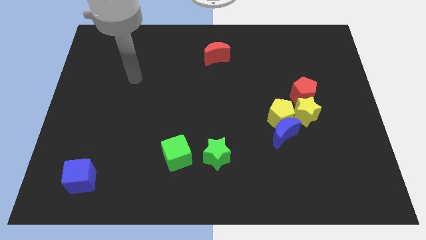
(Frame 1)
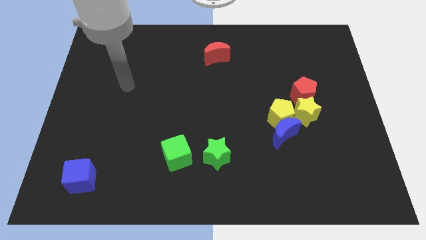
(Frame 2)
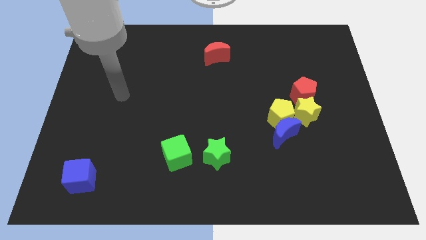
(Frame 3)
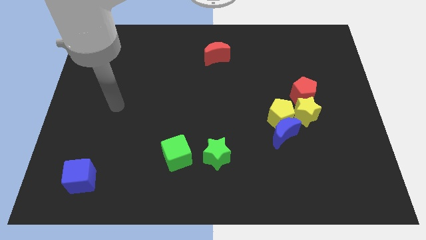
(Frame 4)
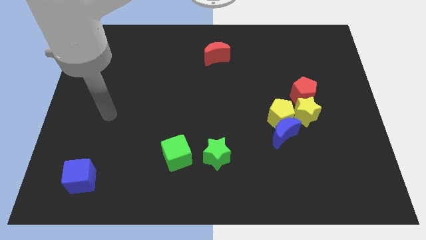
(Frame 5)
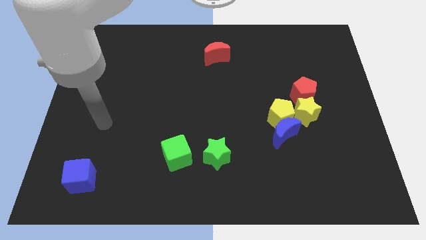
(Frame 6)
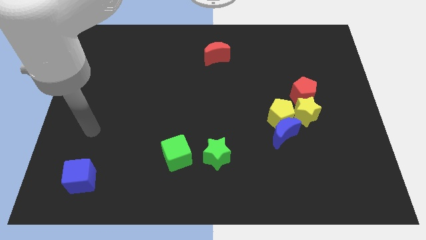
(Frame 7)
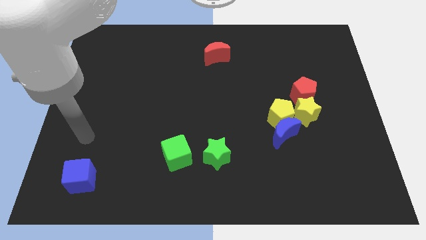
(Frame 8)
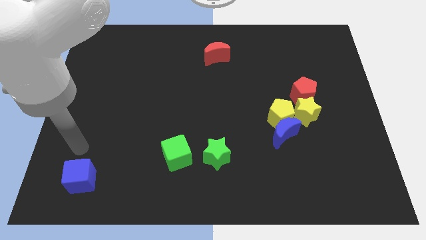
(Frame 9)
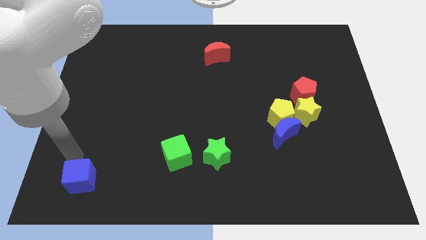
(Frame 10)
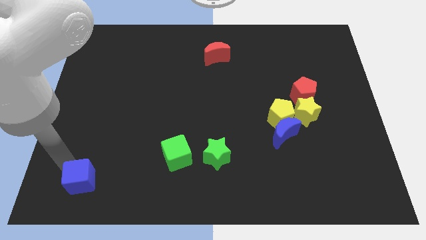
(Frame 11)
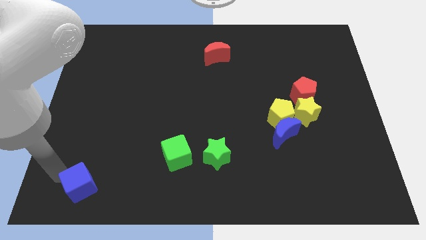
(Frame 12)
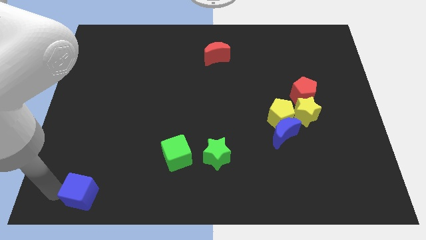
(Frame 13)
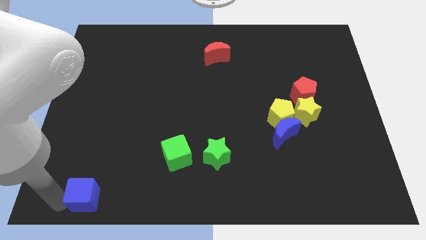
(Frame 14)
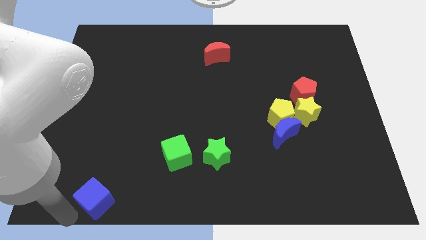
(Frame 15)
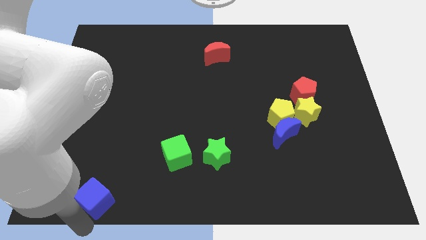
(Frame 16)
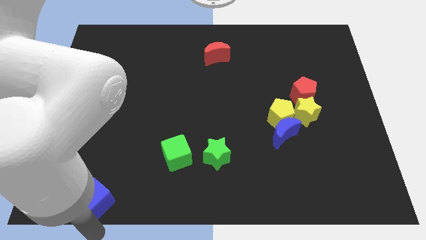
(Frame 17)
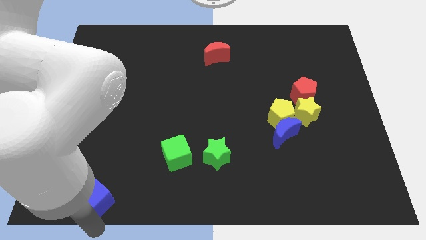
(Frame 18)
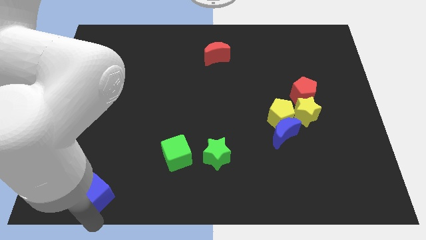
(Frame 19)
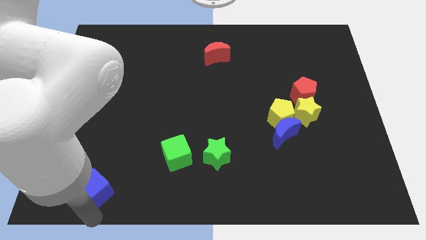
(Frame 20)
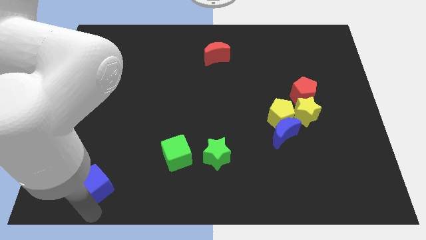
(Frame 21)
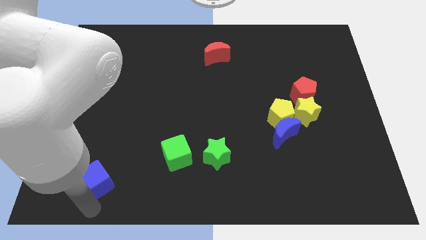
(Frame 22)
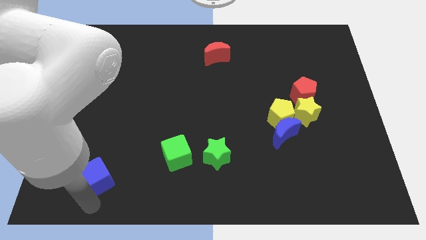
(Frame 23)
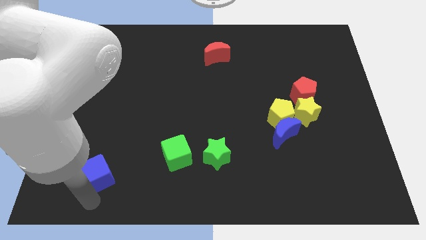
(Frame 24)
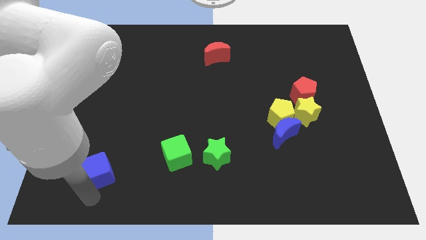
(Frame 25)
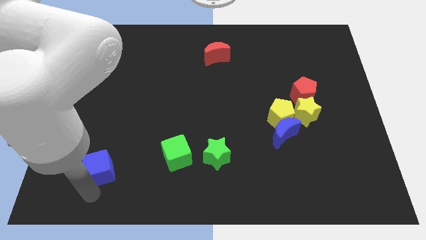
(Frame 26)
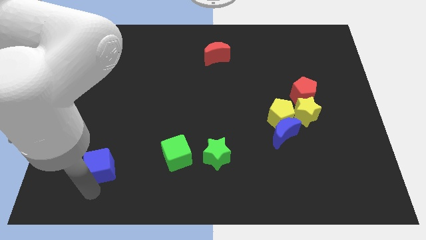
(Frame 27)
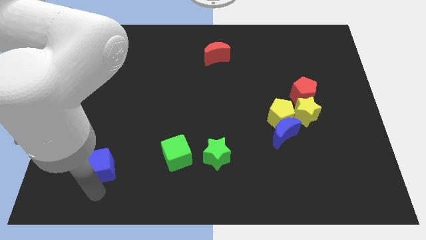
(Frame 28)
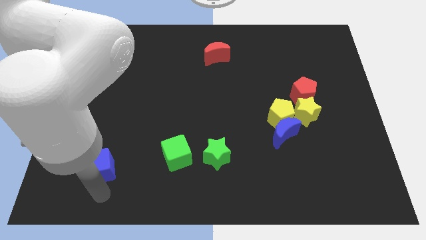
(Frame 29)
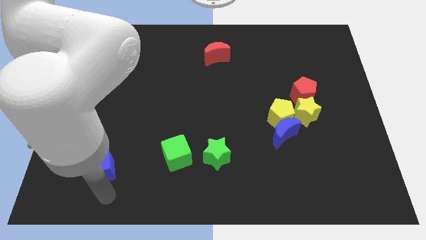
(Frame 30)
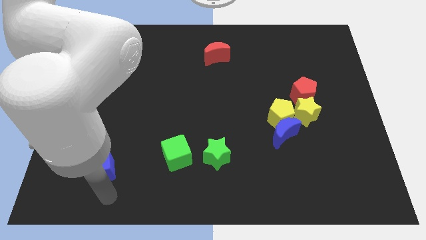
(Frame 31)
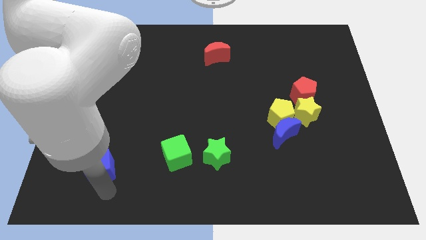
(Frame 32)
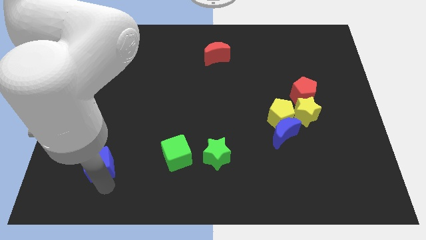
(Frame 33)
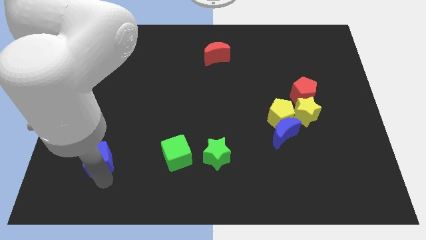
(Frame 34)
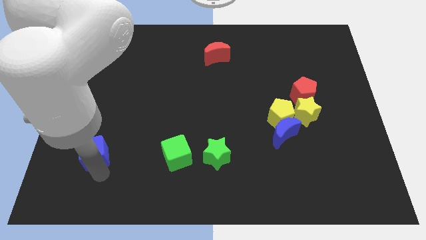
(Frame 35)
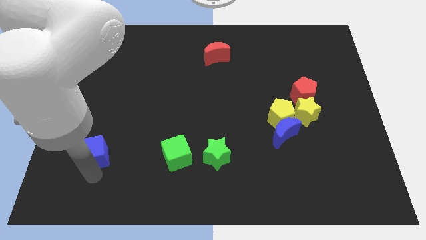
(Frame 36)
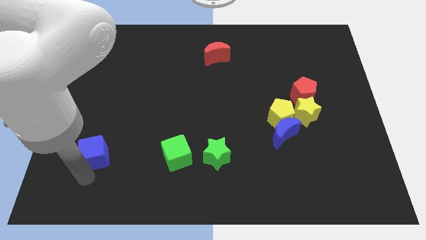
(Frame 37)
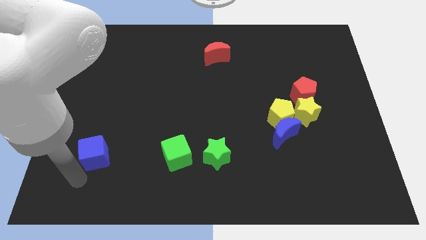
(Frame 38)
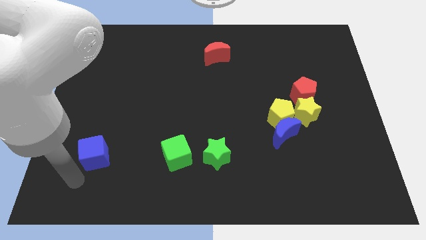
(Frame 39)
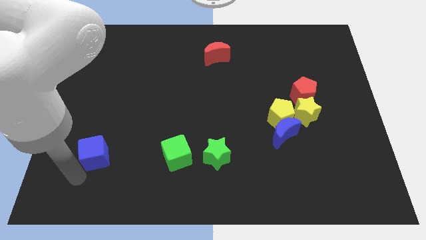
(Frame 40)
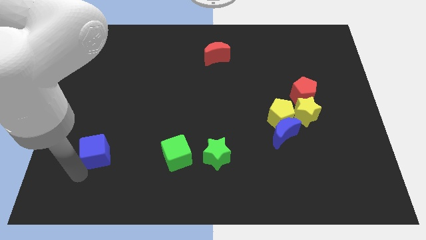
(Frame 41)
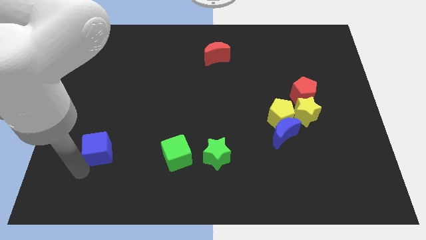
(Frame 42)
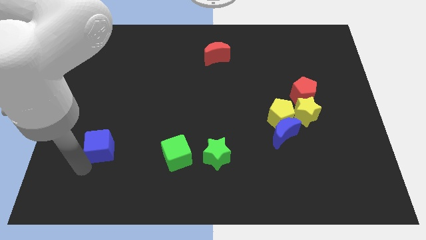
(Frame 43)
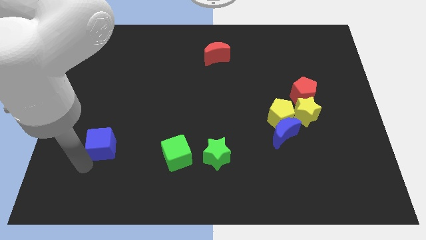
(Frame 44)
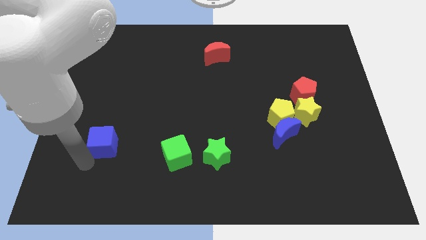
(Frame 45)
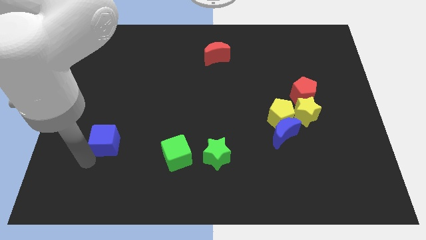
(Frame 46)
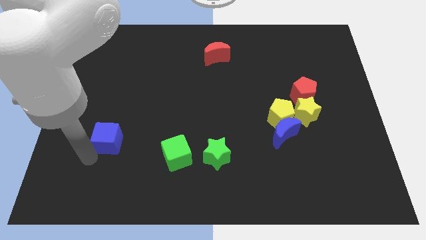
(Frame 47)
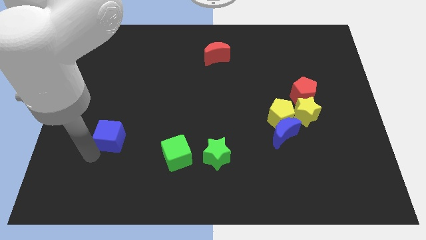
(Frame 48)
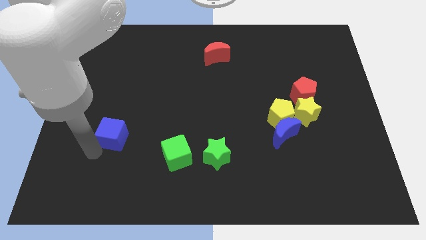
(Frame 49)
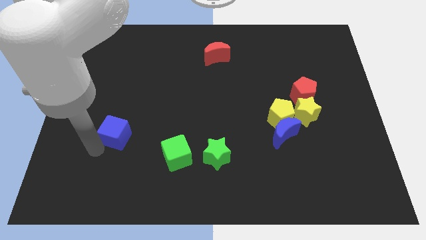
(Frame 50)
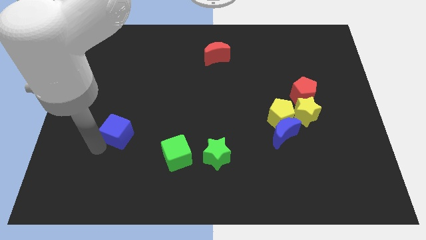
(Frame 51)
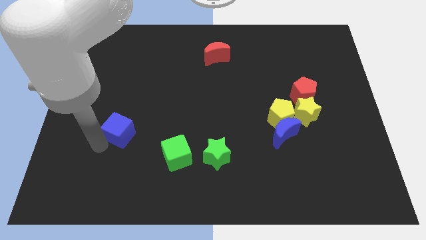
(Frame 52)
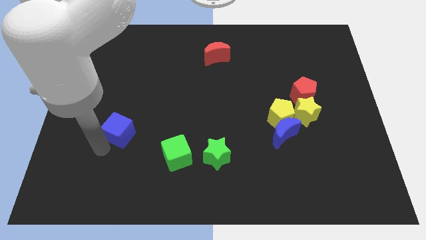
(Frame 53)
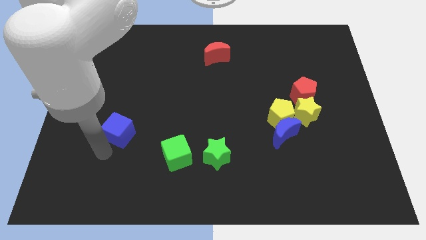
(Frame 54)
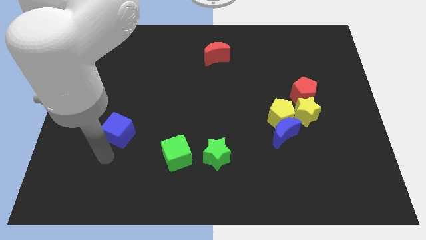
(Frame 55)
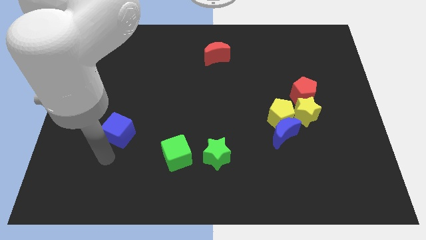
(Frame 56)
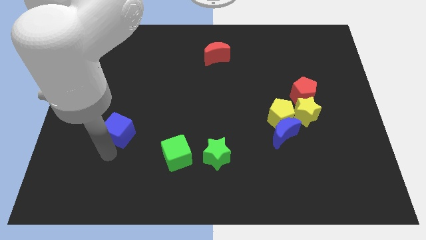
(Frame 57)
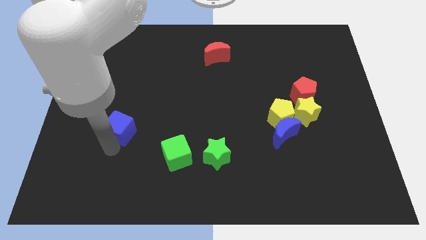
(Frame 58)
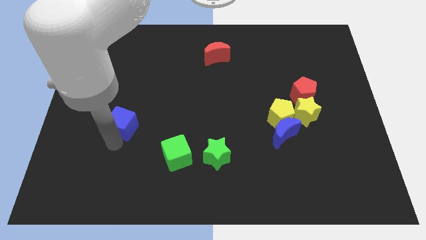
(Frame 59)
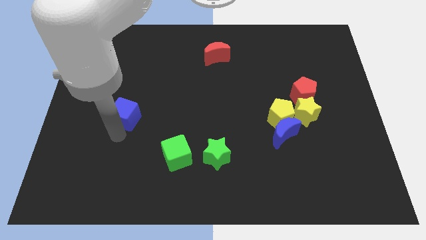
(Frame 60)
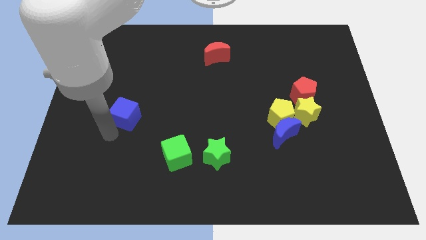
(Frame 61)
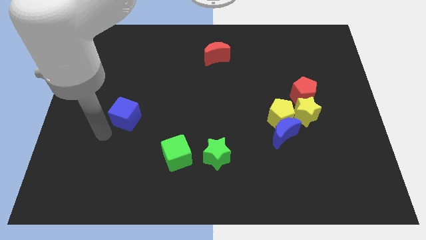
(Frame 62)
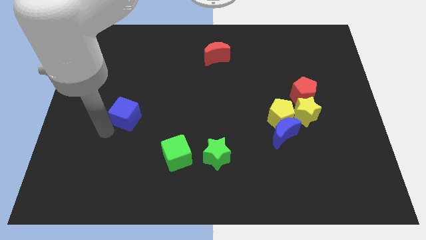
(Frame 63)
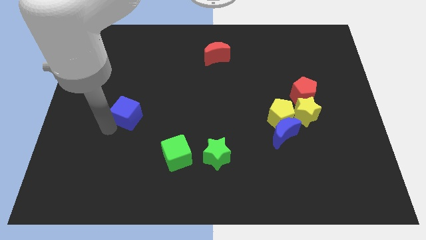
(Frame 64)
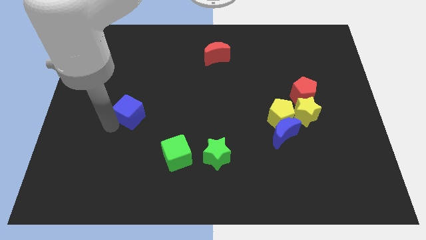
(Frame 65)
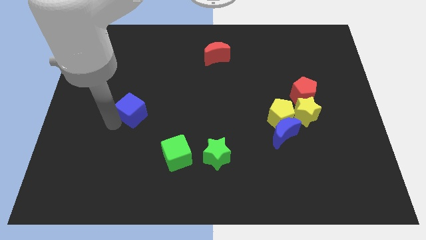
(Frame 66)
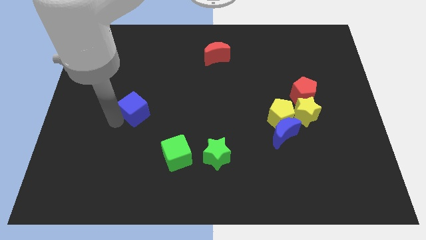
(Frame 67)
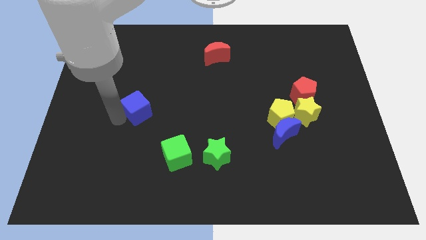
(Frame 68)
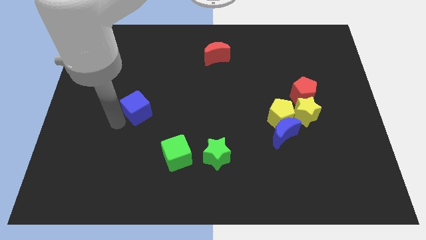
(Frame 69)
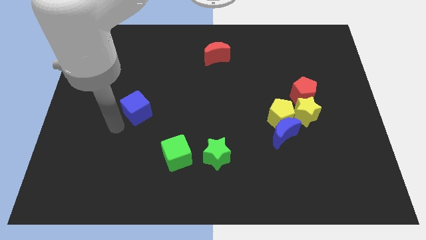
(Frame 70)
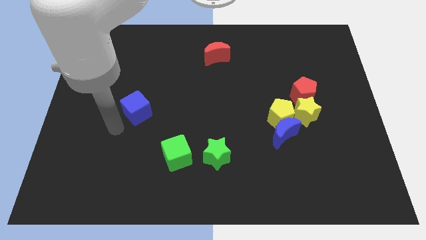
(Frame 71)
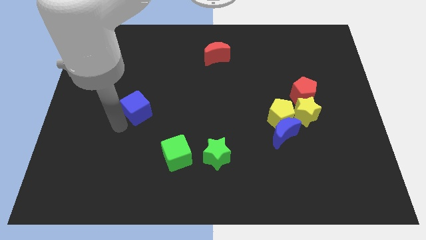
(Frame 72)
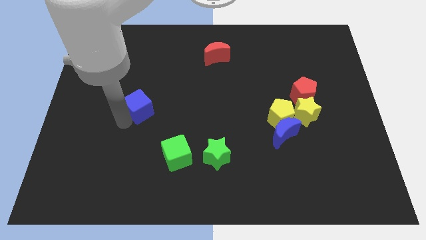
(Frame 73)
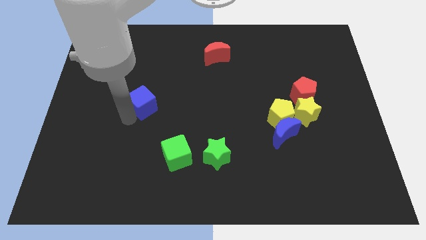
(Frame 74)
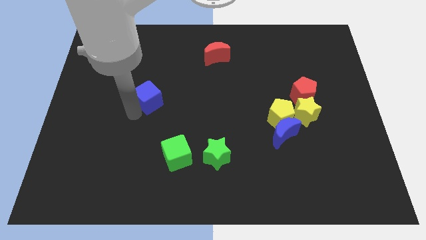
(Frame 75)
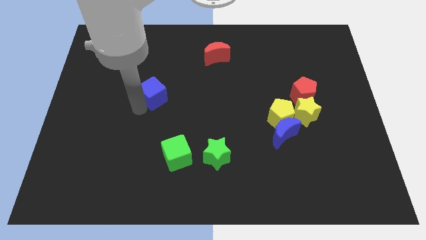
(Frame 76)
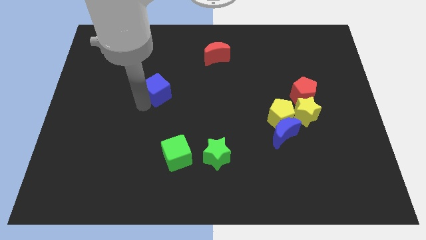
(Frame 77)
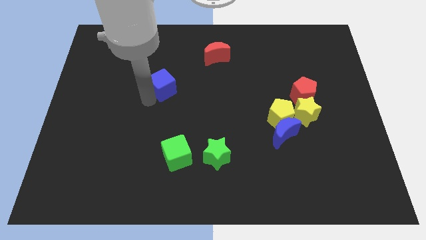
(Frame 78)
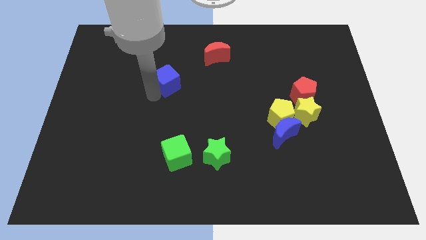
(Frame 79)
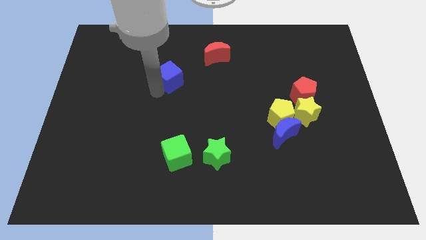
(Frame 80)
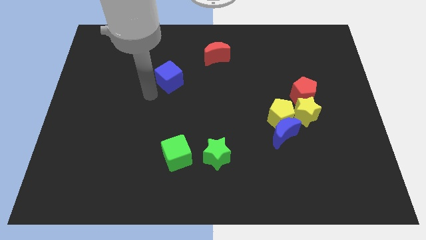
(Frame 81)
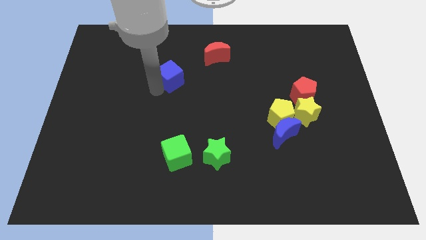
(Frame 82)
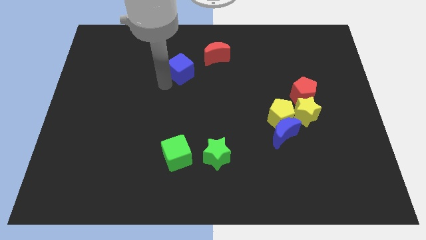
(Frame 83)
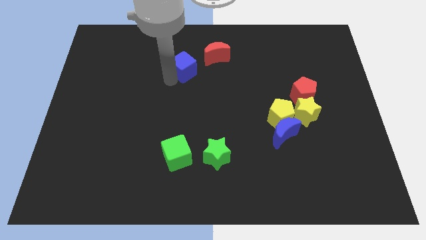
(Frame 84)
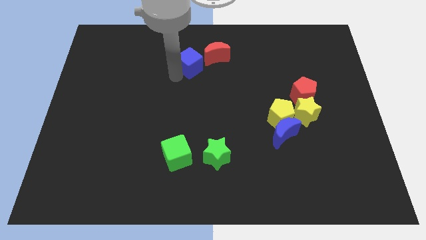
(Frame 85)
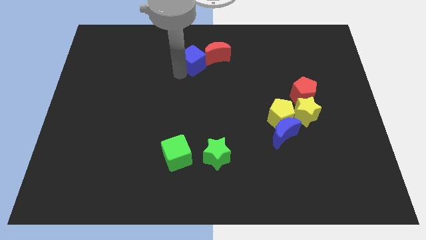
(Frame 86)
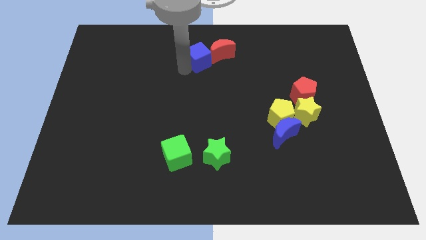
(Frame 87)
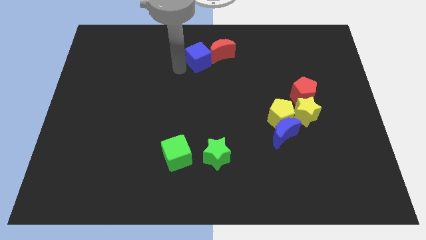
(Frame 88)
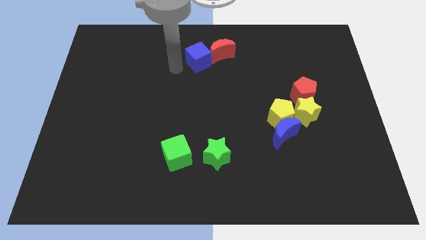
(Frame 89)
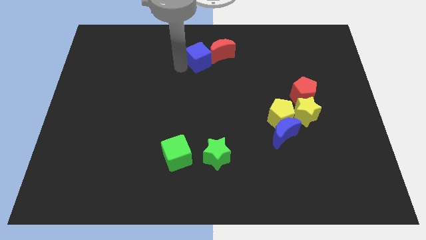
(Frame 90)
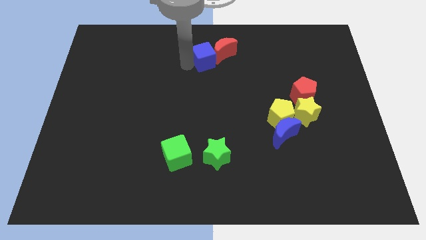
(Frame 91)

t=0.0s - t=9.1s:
move the blue cube to the red moon
